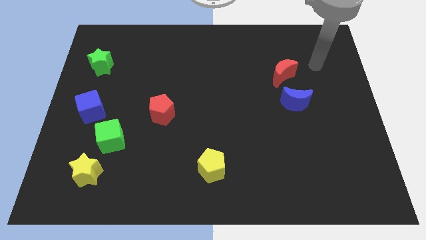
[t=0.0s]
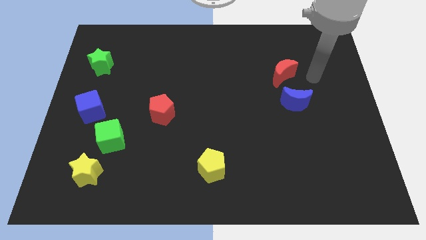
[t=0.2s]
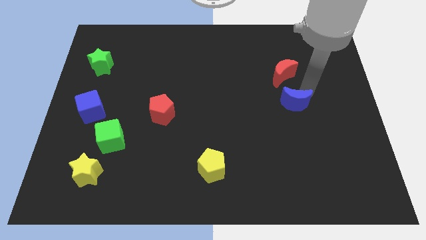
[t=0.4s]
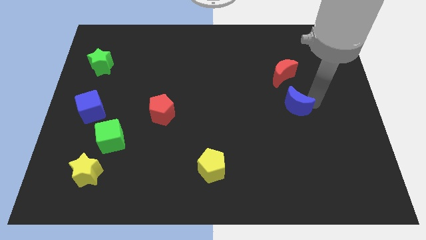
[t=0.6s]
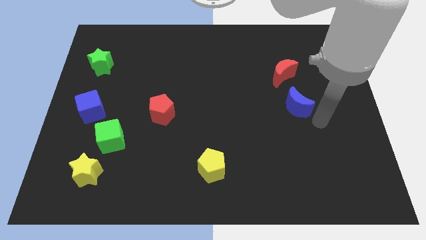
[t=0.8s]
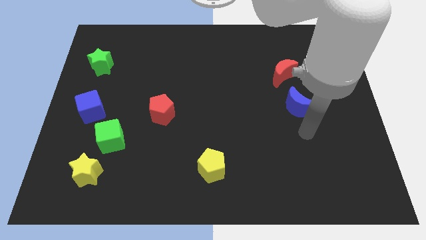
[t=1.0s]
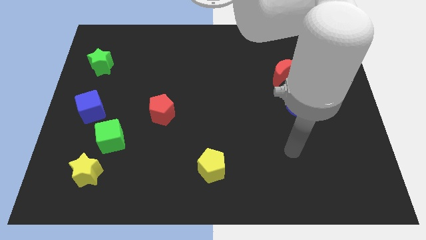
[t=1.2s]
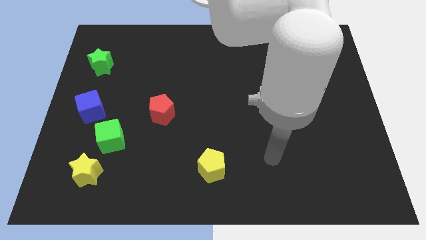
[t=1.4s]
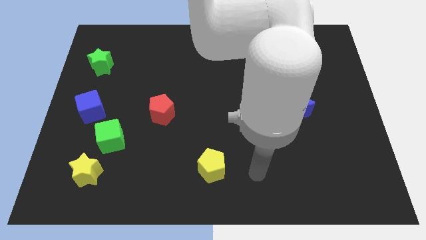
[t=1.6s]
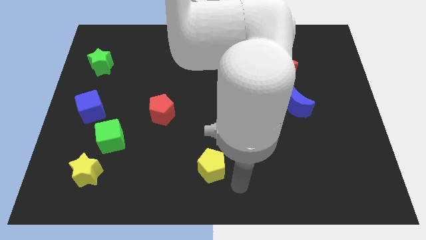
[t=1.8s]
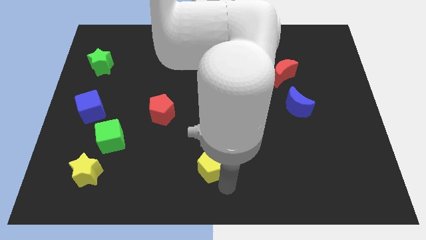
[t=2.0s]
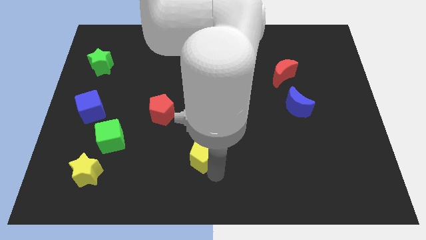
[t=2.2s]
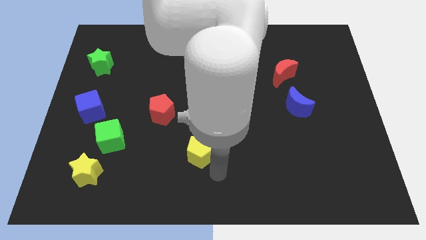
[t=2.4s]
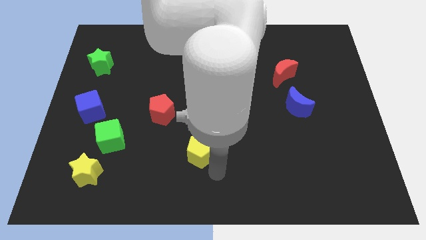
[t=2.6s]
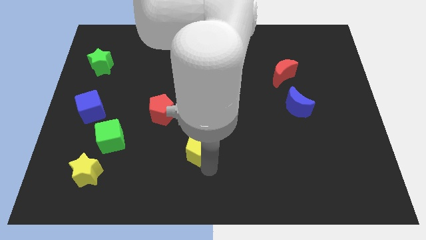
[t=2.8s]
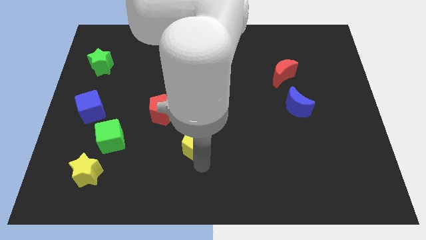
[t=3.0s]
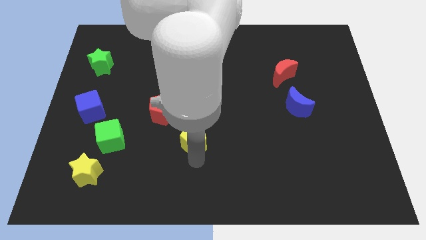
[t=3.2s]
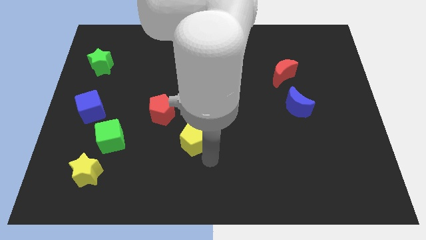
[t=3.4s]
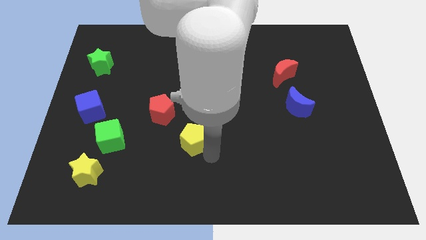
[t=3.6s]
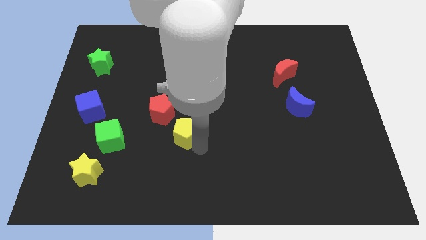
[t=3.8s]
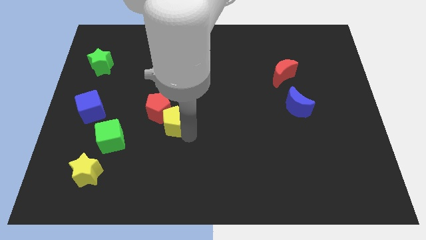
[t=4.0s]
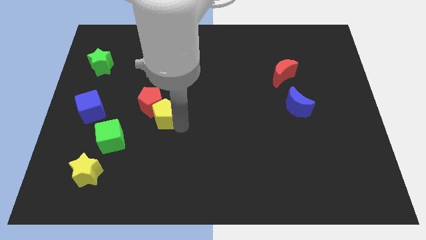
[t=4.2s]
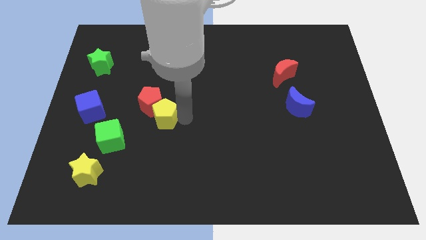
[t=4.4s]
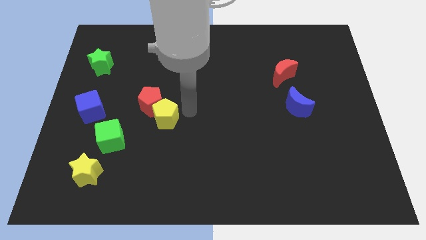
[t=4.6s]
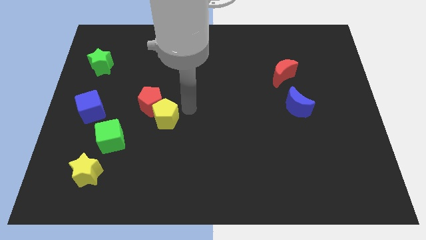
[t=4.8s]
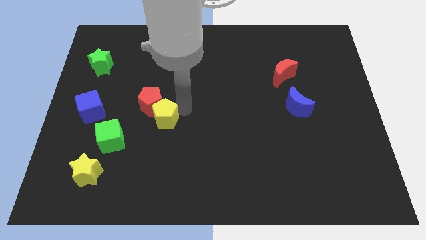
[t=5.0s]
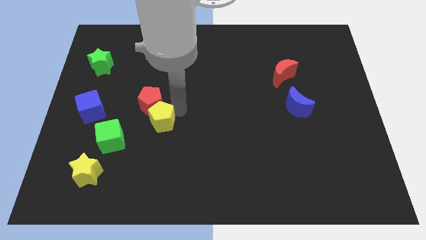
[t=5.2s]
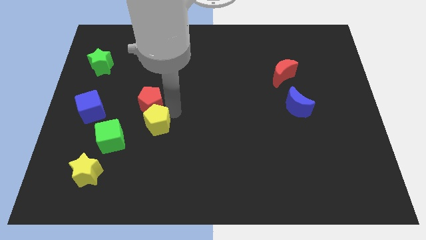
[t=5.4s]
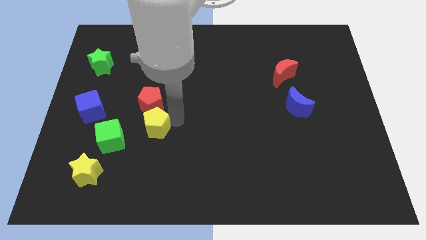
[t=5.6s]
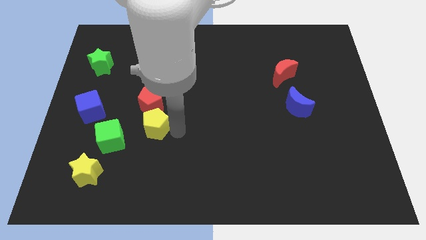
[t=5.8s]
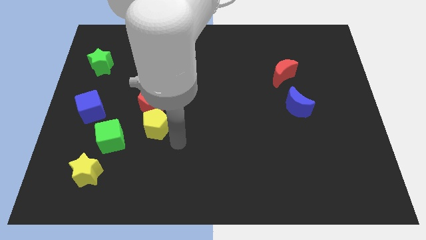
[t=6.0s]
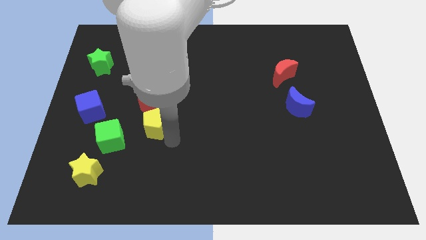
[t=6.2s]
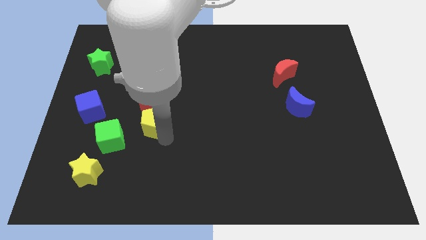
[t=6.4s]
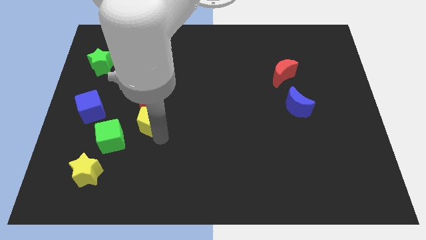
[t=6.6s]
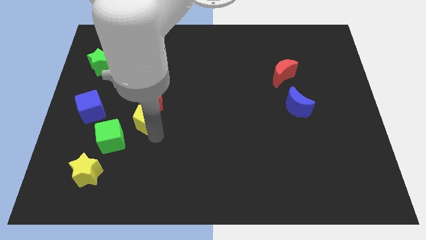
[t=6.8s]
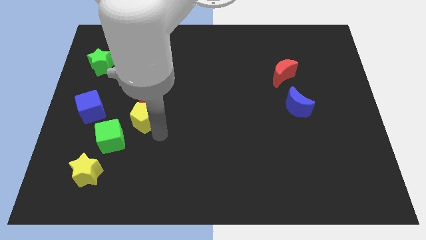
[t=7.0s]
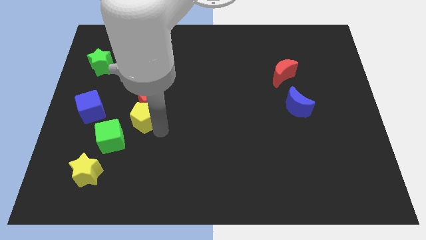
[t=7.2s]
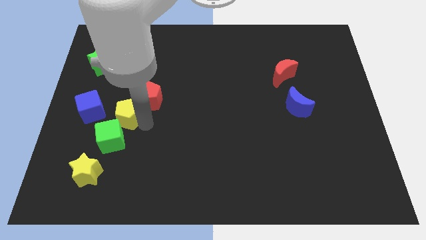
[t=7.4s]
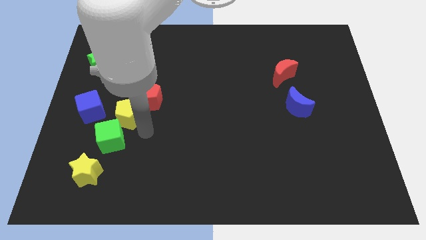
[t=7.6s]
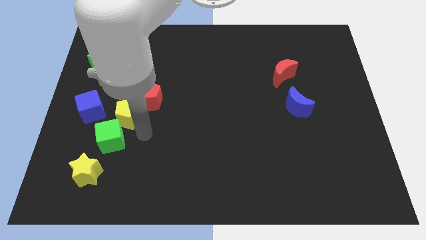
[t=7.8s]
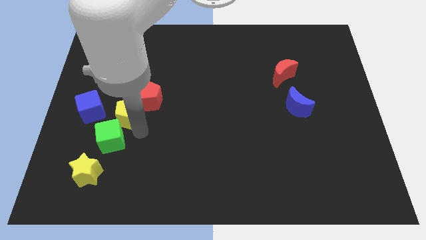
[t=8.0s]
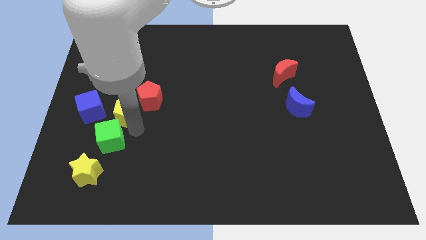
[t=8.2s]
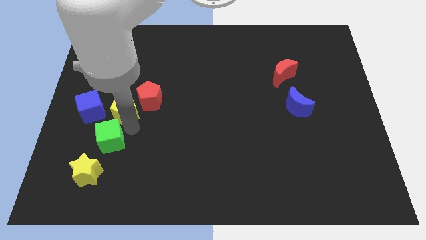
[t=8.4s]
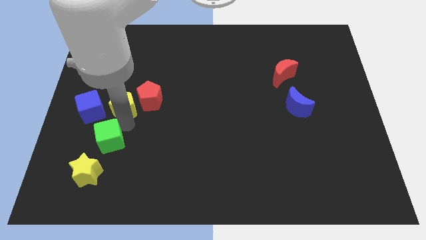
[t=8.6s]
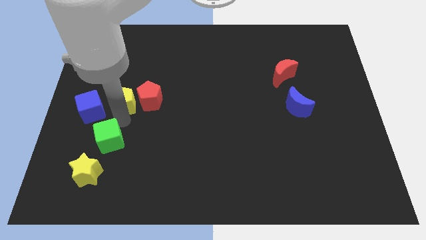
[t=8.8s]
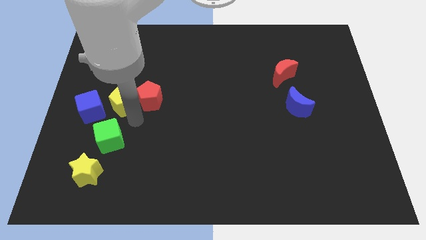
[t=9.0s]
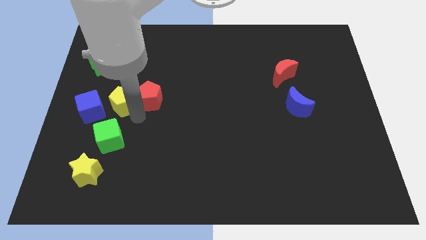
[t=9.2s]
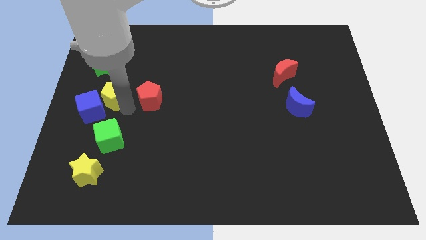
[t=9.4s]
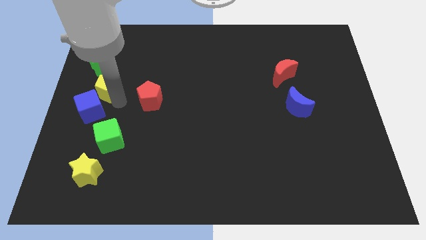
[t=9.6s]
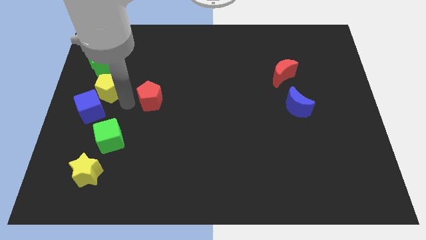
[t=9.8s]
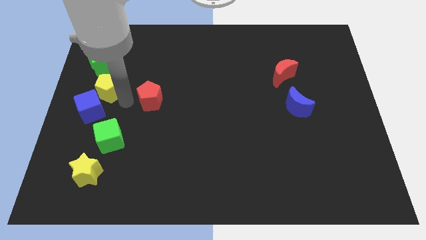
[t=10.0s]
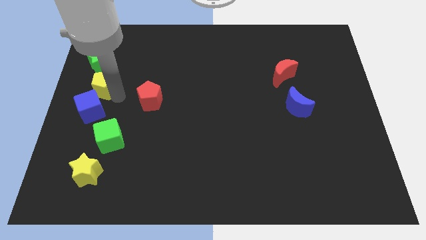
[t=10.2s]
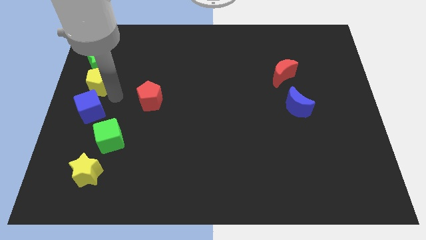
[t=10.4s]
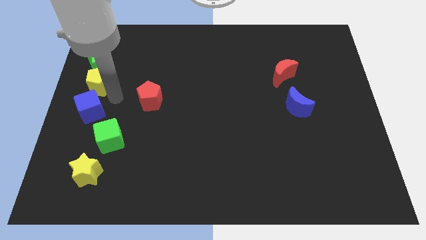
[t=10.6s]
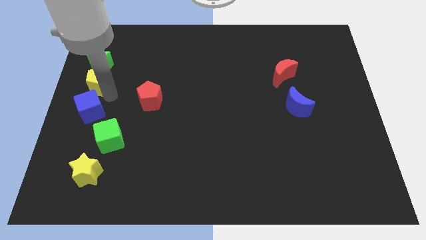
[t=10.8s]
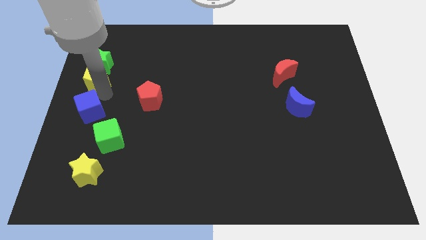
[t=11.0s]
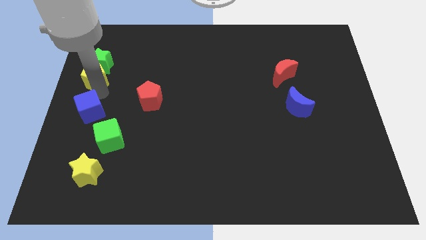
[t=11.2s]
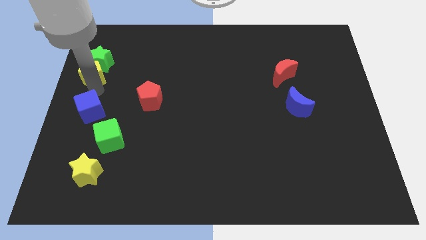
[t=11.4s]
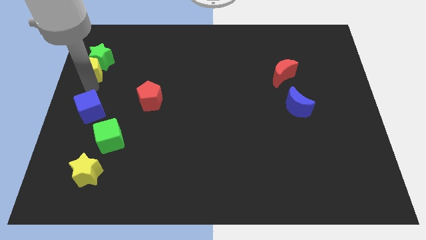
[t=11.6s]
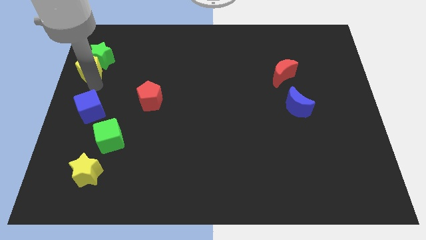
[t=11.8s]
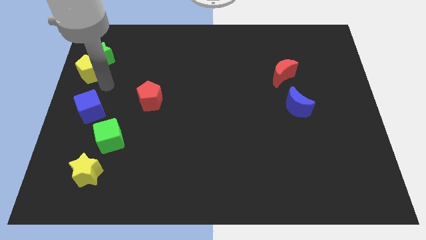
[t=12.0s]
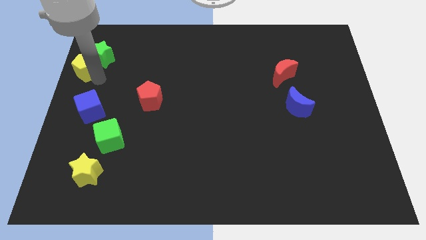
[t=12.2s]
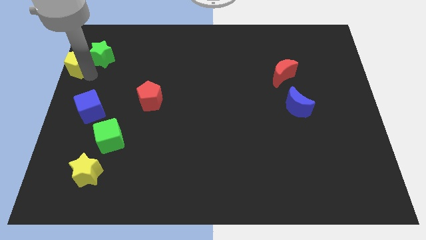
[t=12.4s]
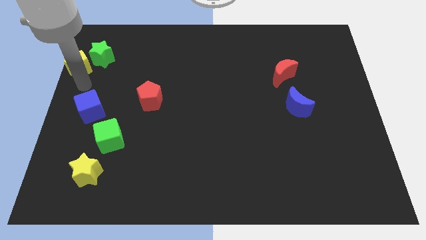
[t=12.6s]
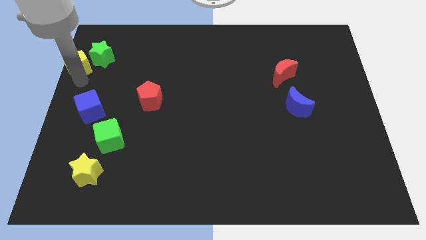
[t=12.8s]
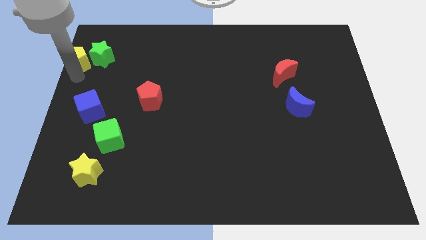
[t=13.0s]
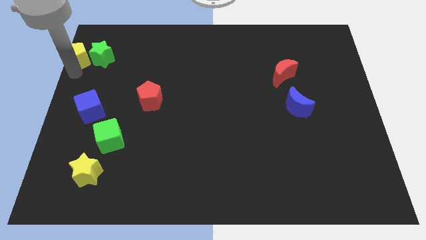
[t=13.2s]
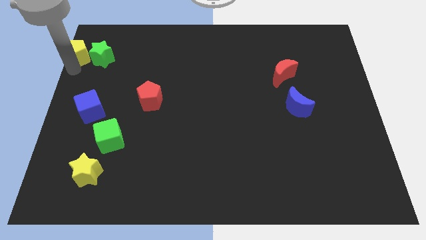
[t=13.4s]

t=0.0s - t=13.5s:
move the yellow pentagon to the top left corner
